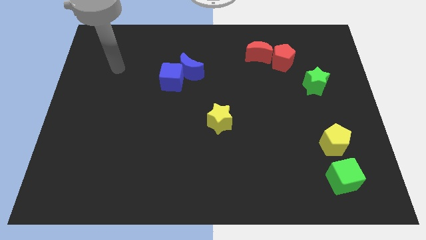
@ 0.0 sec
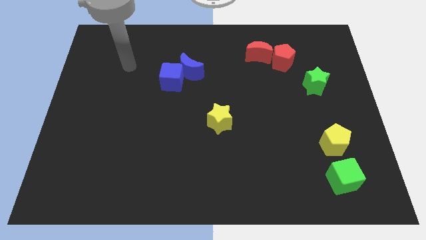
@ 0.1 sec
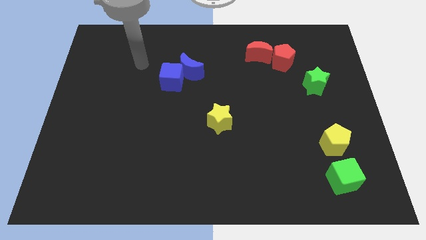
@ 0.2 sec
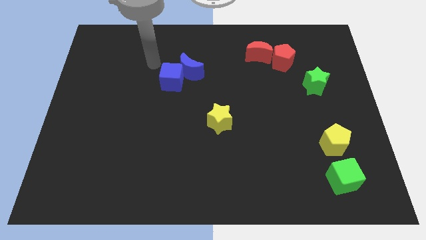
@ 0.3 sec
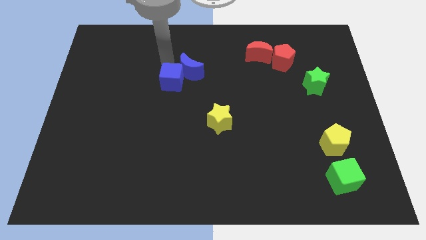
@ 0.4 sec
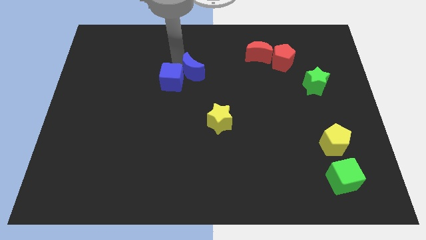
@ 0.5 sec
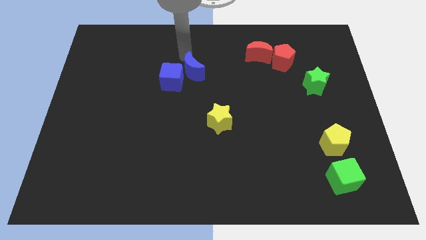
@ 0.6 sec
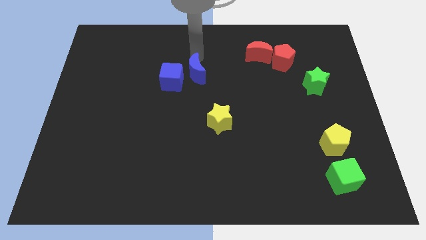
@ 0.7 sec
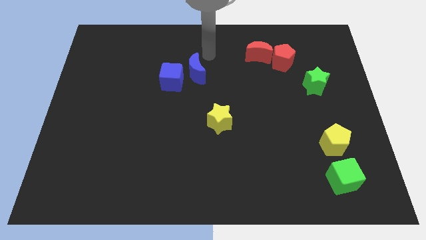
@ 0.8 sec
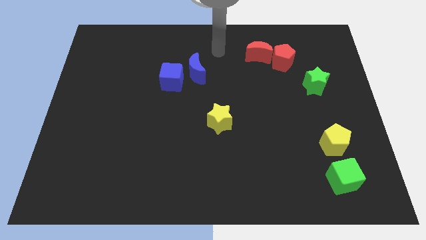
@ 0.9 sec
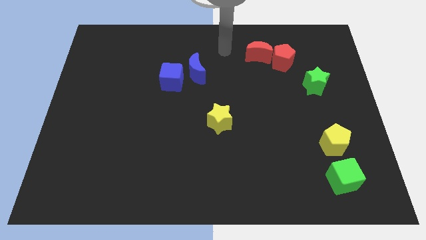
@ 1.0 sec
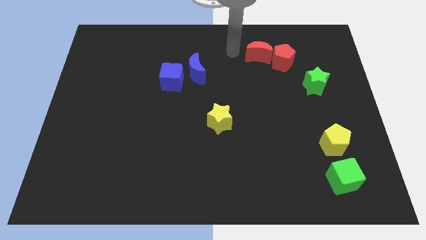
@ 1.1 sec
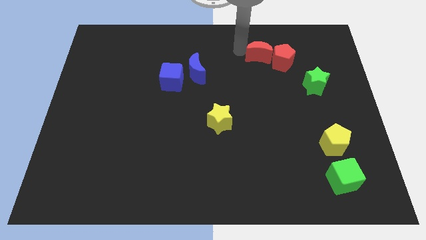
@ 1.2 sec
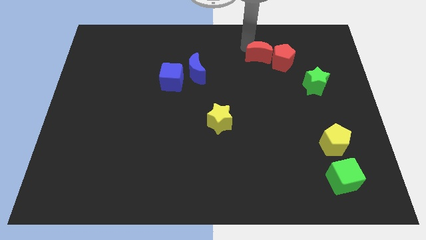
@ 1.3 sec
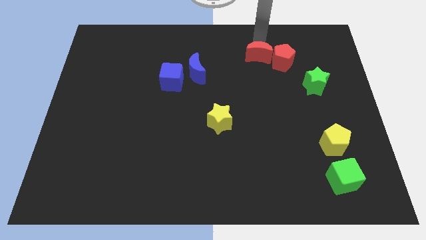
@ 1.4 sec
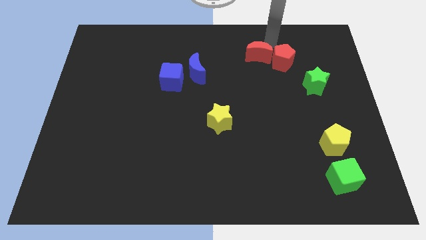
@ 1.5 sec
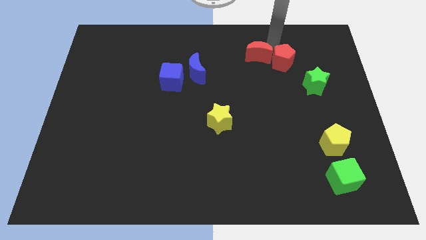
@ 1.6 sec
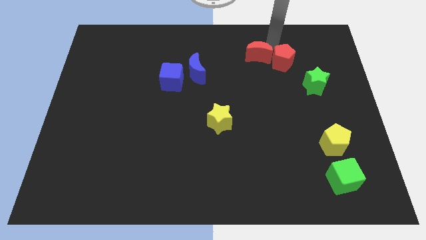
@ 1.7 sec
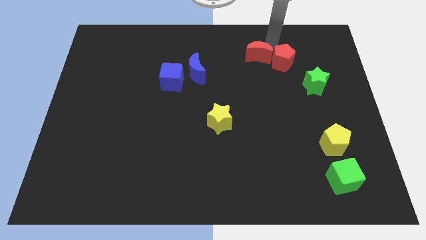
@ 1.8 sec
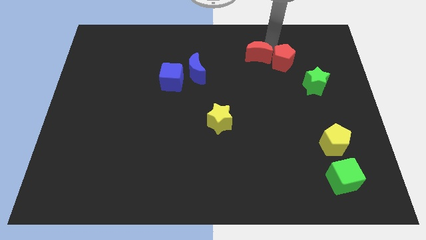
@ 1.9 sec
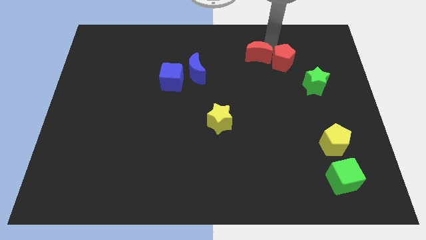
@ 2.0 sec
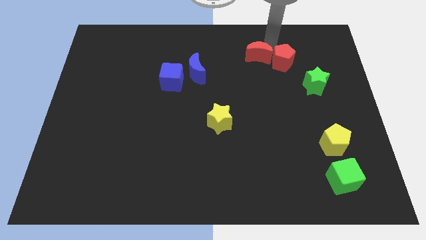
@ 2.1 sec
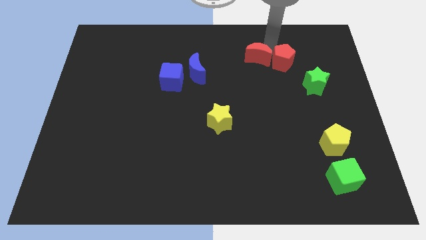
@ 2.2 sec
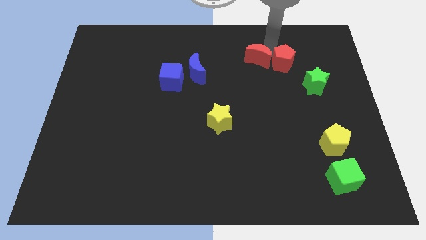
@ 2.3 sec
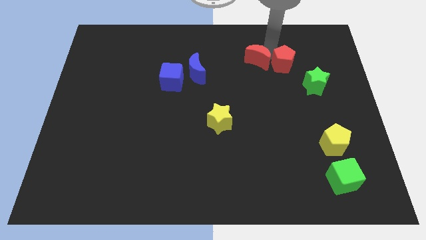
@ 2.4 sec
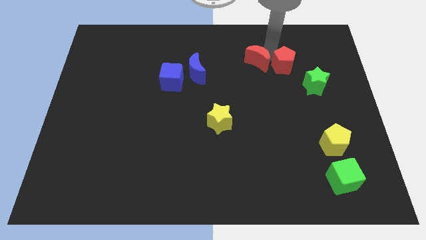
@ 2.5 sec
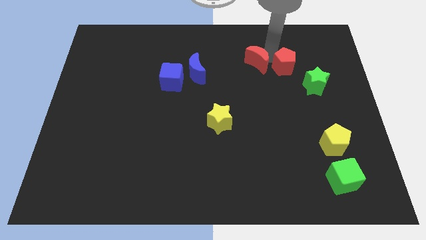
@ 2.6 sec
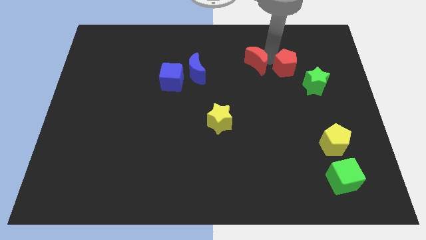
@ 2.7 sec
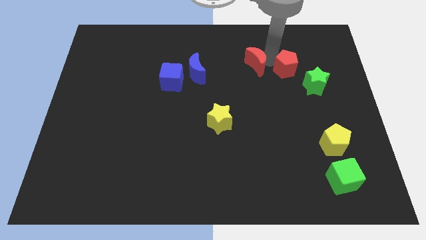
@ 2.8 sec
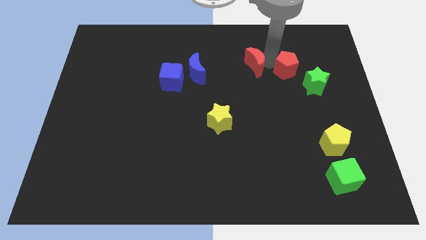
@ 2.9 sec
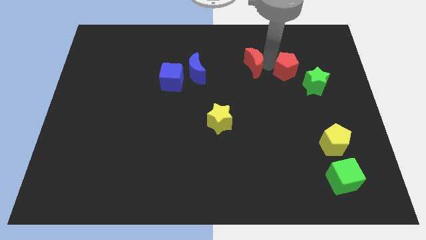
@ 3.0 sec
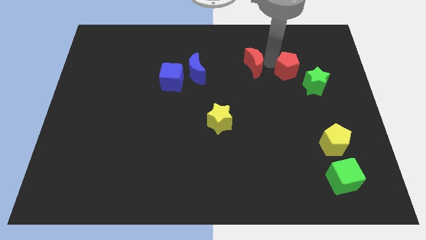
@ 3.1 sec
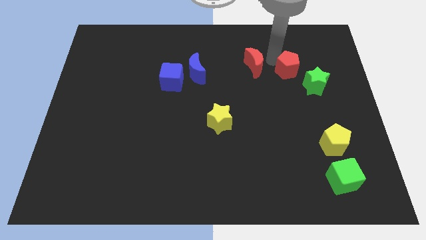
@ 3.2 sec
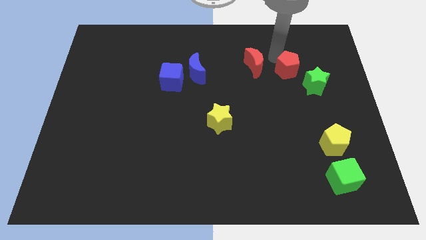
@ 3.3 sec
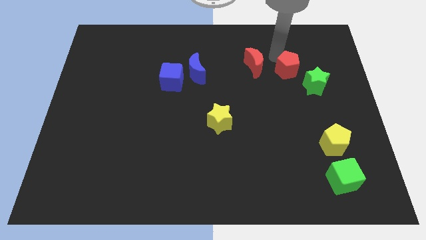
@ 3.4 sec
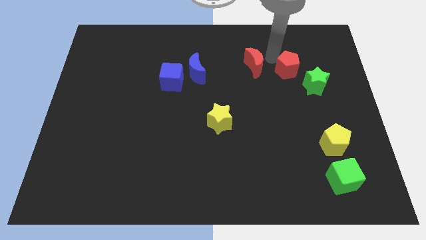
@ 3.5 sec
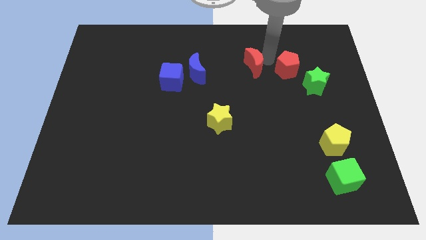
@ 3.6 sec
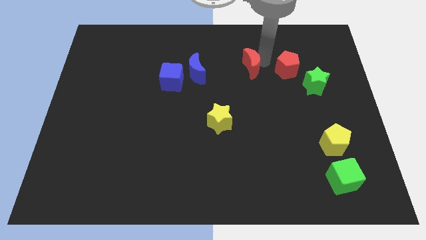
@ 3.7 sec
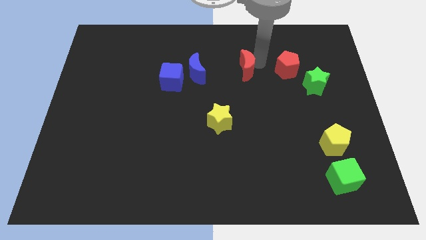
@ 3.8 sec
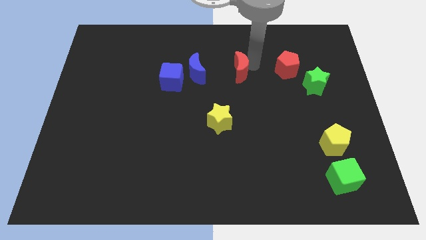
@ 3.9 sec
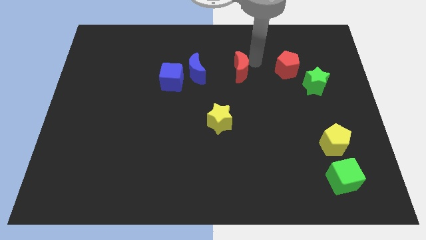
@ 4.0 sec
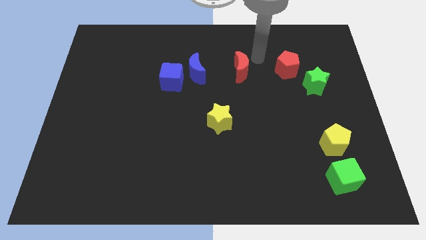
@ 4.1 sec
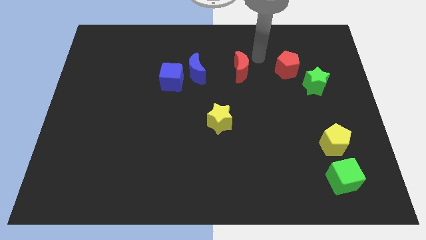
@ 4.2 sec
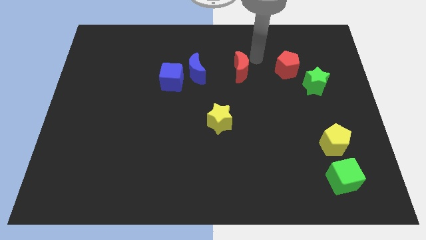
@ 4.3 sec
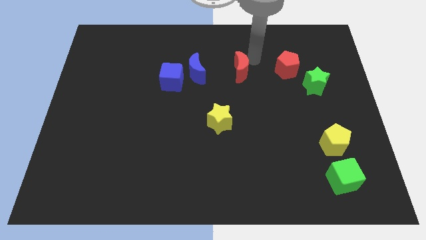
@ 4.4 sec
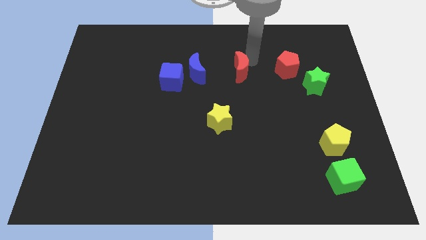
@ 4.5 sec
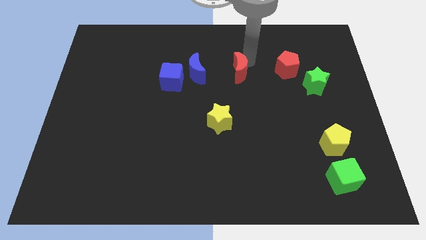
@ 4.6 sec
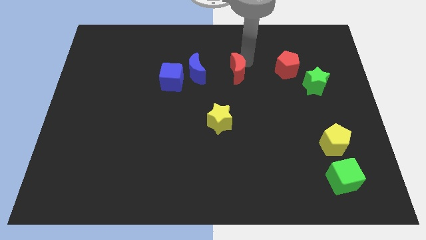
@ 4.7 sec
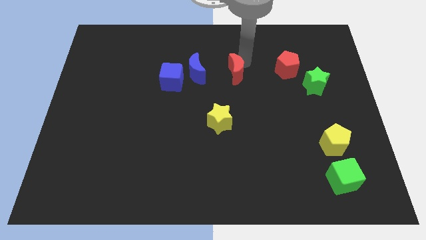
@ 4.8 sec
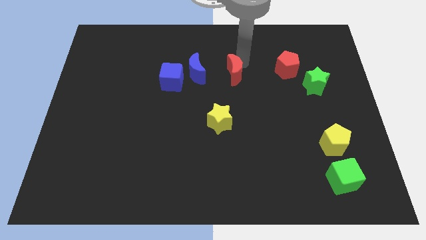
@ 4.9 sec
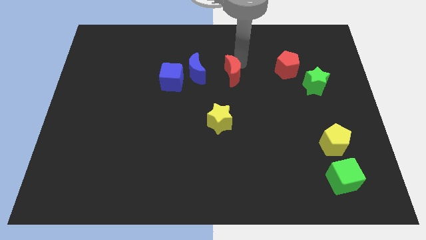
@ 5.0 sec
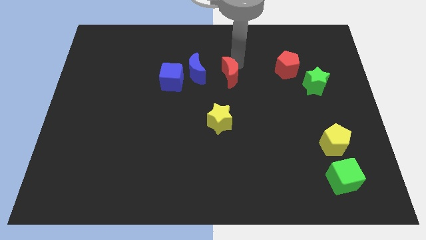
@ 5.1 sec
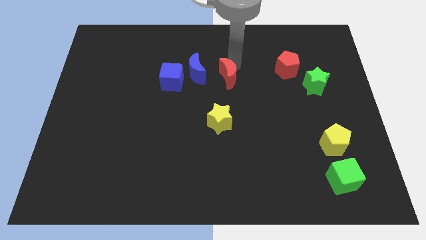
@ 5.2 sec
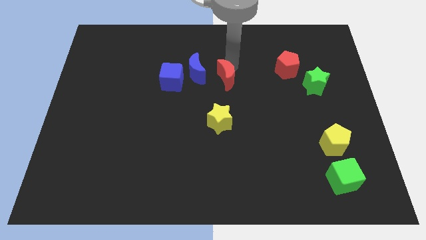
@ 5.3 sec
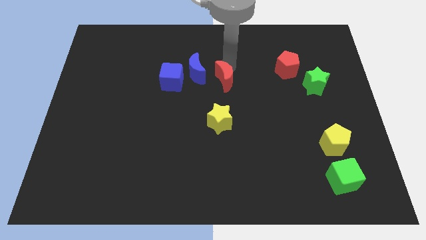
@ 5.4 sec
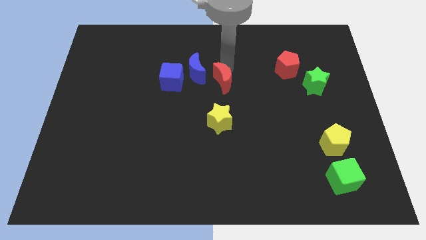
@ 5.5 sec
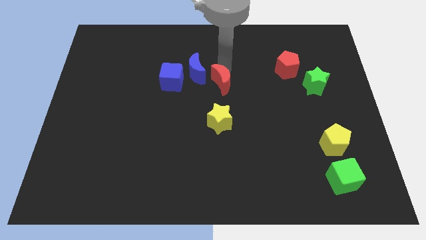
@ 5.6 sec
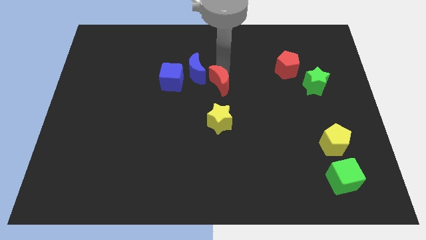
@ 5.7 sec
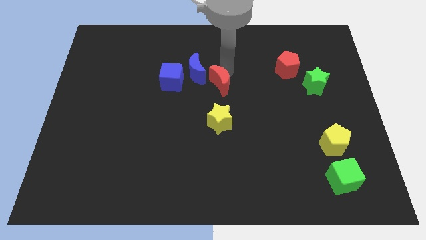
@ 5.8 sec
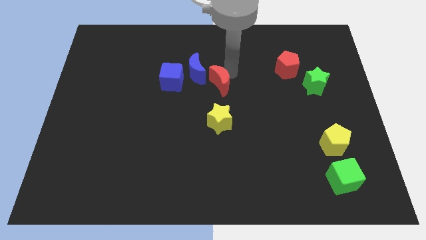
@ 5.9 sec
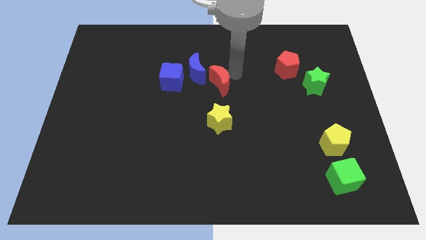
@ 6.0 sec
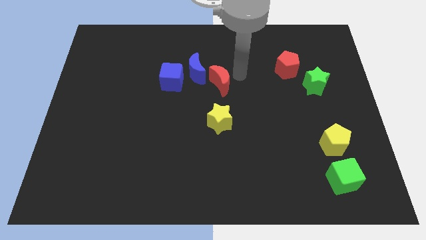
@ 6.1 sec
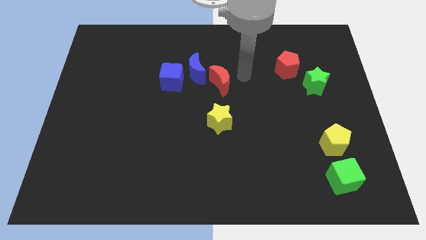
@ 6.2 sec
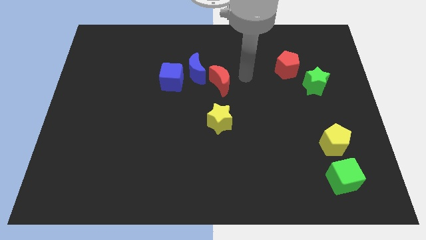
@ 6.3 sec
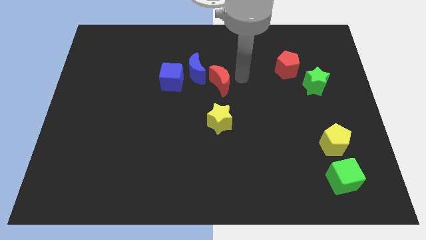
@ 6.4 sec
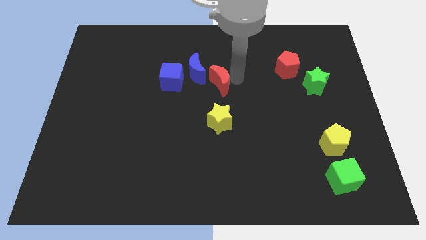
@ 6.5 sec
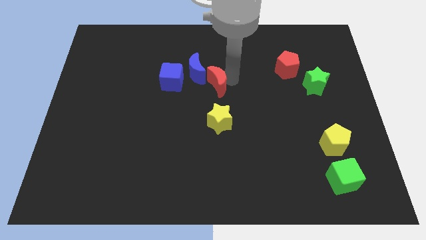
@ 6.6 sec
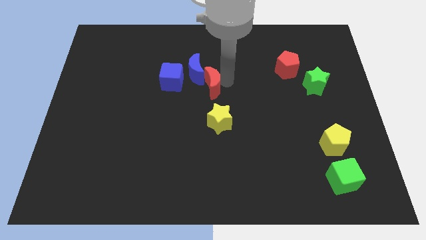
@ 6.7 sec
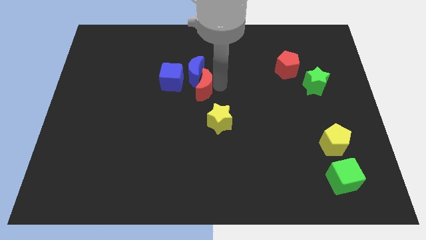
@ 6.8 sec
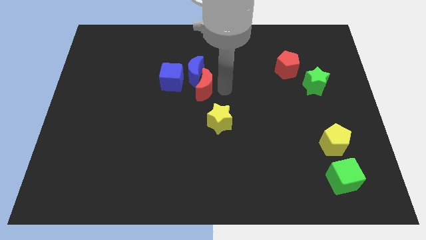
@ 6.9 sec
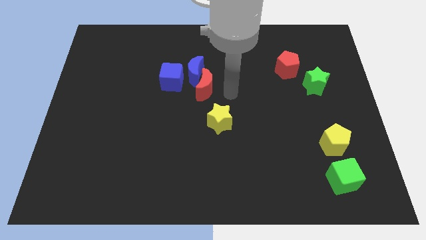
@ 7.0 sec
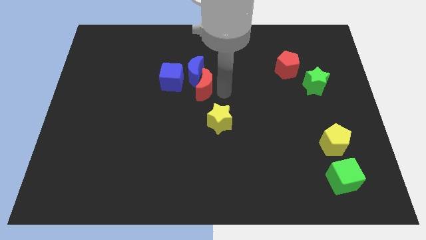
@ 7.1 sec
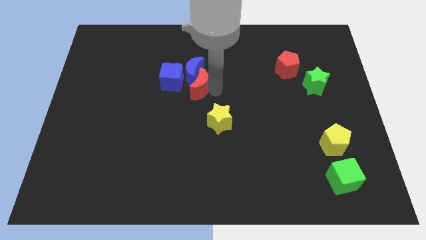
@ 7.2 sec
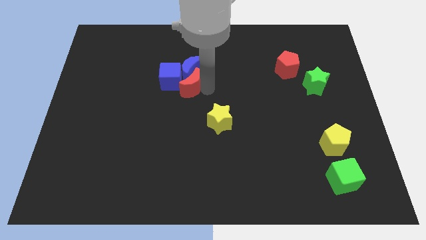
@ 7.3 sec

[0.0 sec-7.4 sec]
push the red moon close to the blue cube
